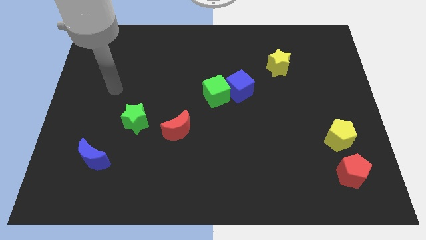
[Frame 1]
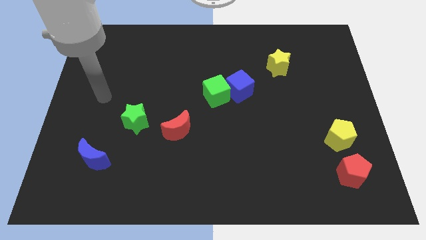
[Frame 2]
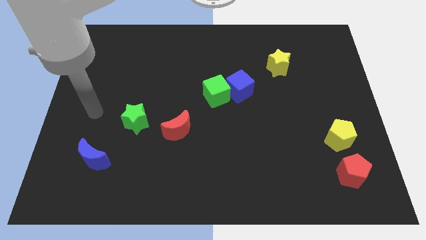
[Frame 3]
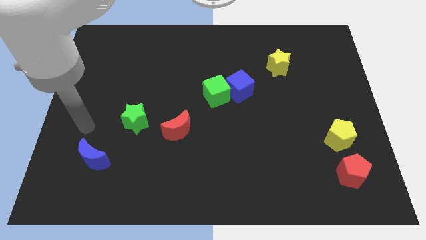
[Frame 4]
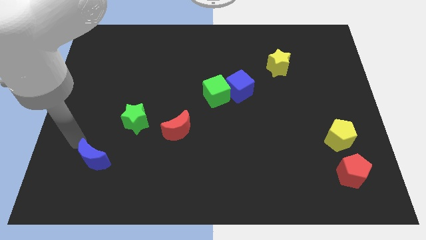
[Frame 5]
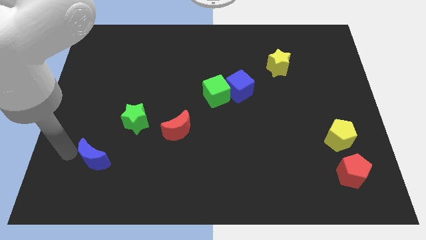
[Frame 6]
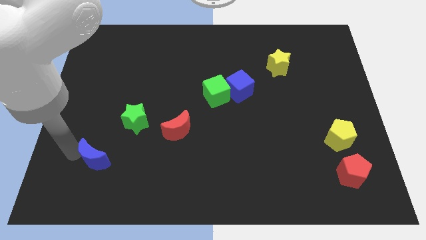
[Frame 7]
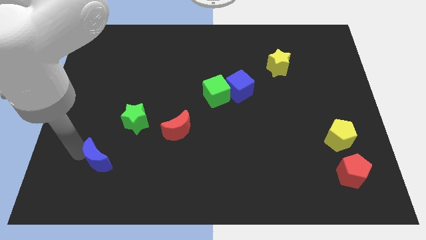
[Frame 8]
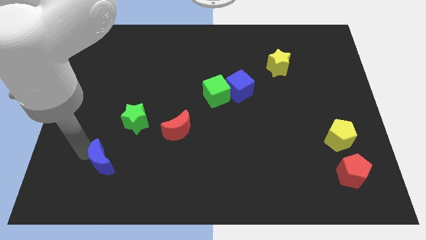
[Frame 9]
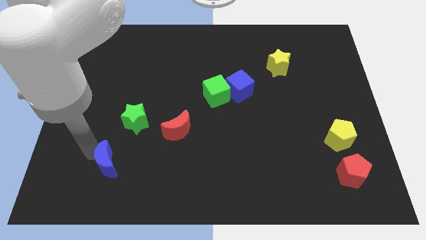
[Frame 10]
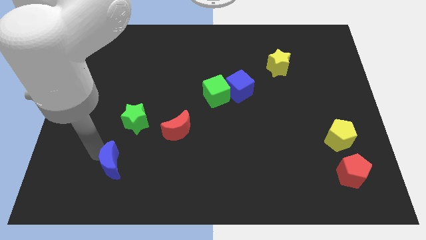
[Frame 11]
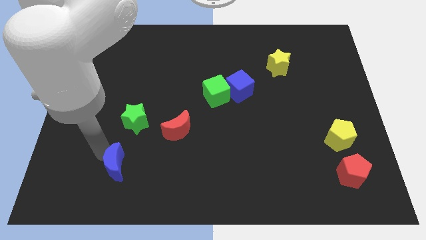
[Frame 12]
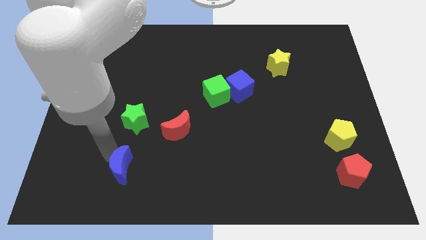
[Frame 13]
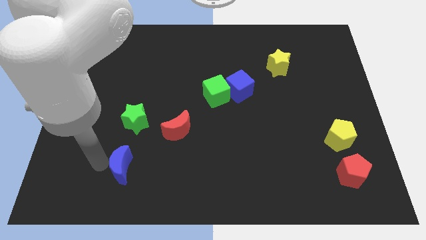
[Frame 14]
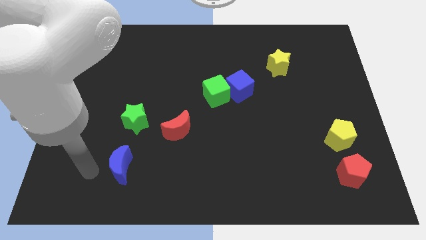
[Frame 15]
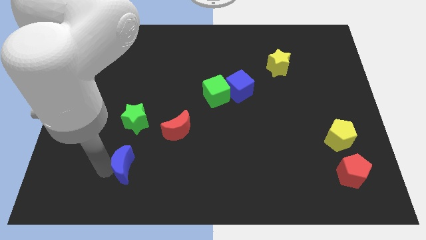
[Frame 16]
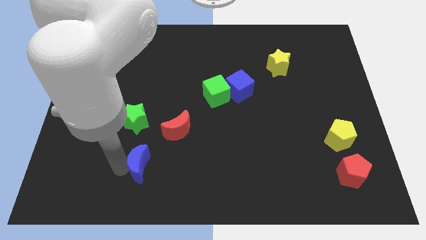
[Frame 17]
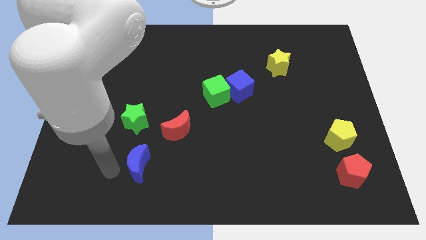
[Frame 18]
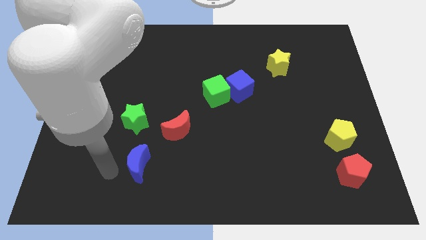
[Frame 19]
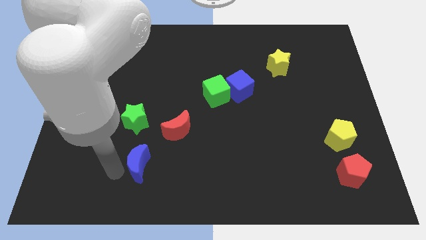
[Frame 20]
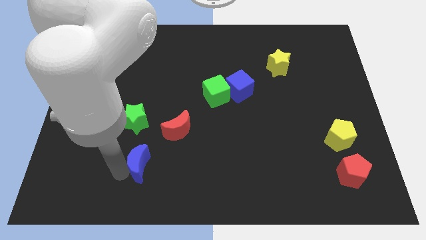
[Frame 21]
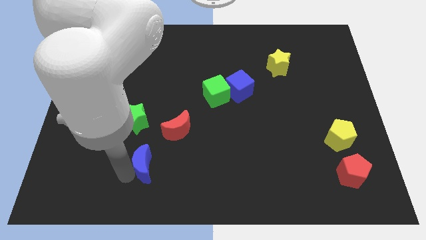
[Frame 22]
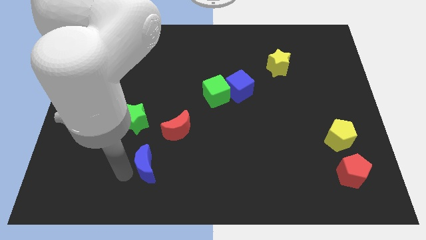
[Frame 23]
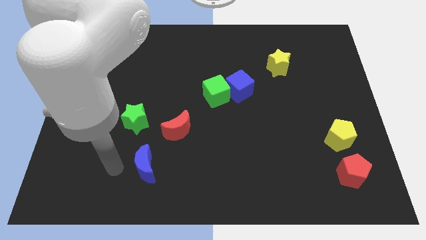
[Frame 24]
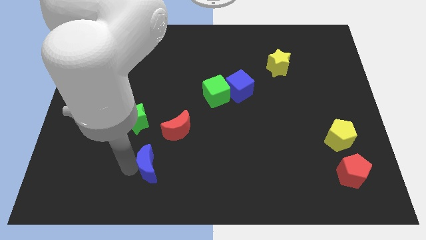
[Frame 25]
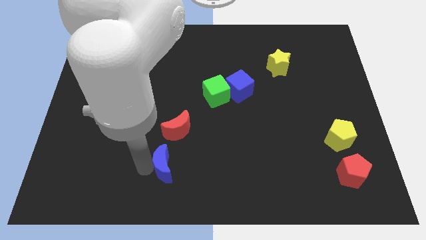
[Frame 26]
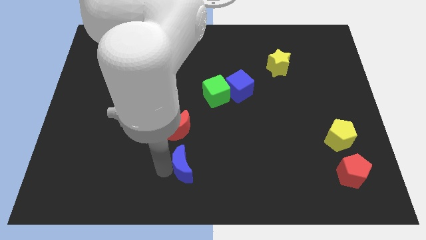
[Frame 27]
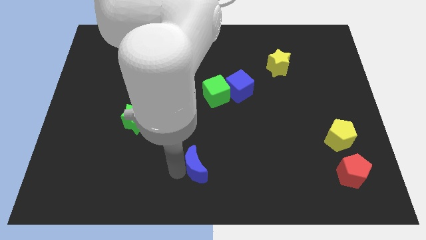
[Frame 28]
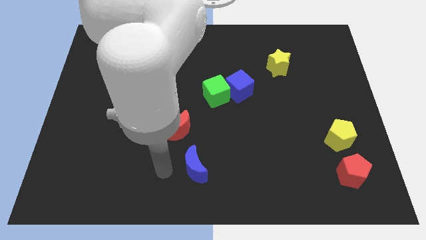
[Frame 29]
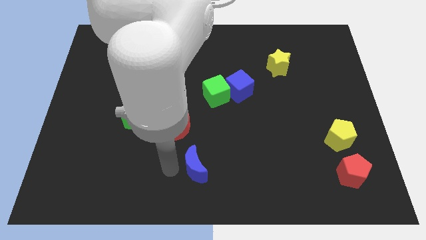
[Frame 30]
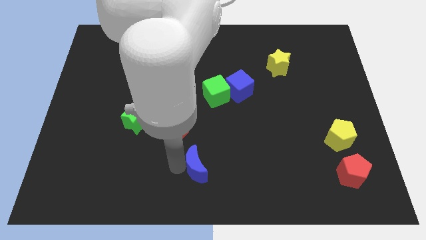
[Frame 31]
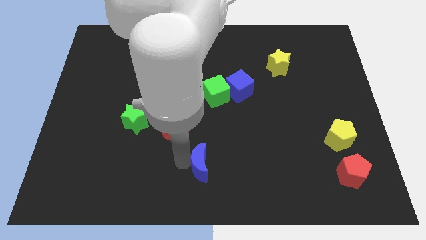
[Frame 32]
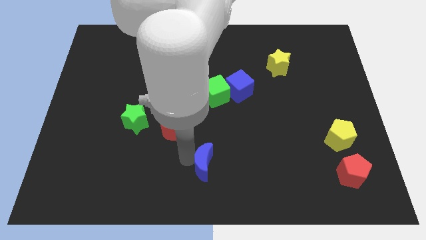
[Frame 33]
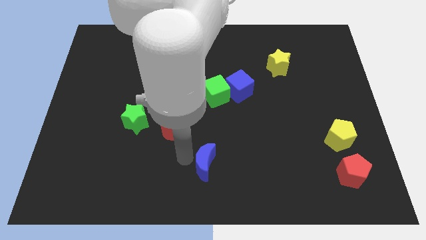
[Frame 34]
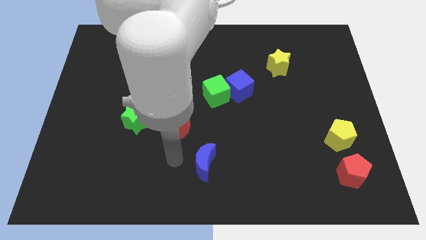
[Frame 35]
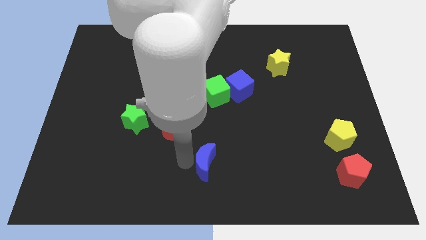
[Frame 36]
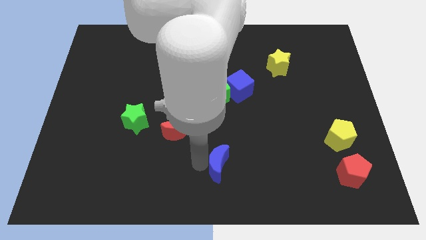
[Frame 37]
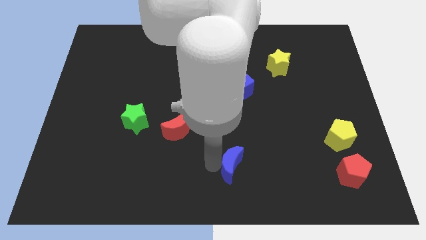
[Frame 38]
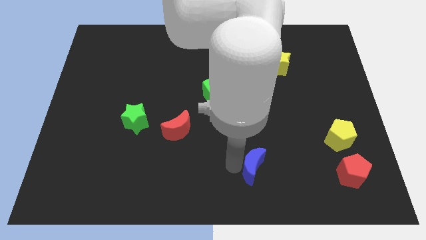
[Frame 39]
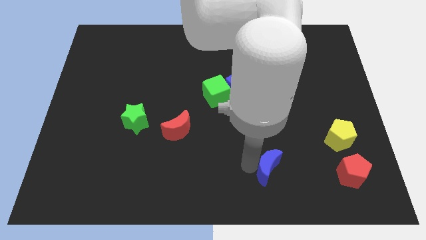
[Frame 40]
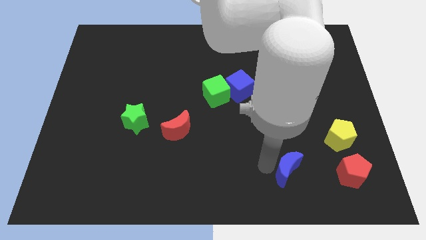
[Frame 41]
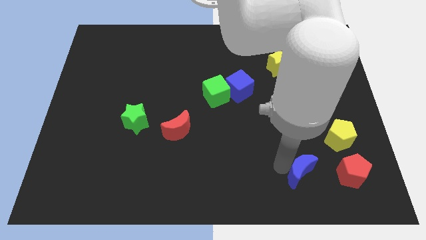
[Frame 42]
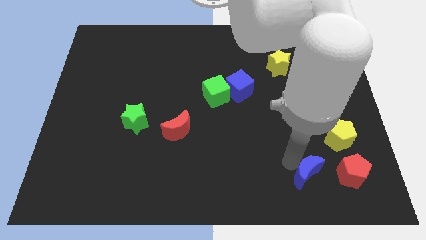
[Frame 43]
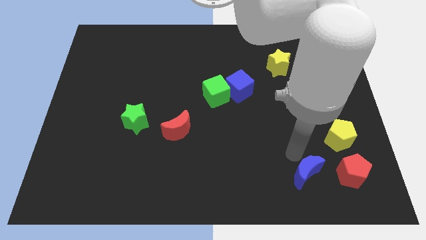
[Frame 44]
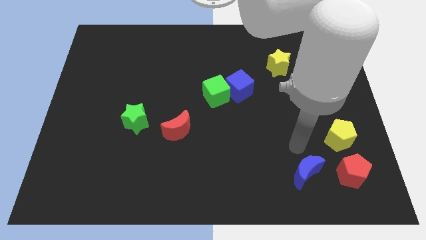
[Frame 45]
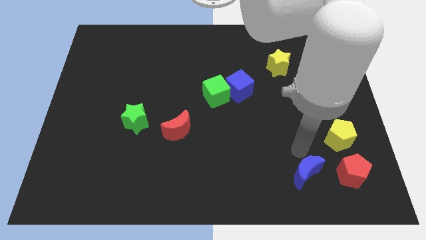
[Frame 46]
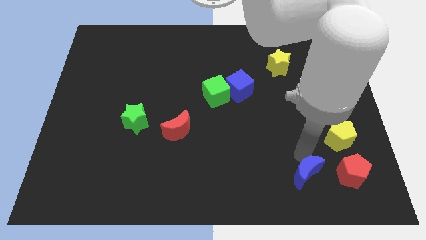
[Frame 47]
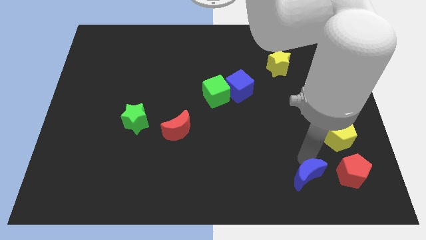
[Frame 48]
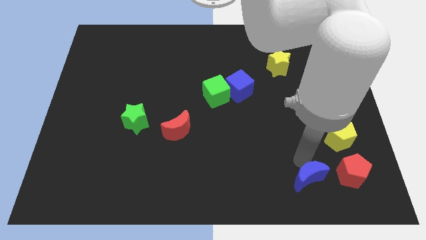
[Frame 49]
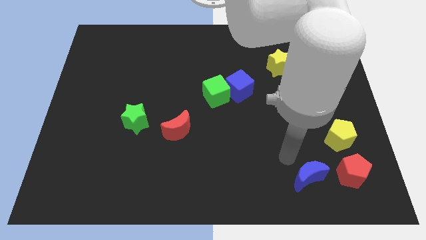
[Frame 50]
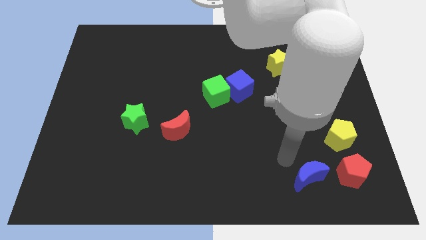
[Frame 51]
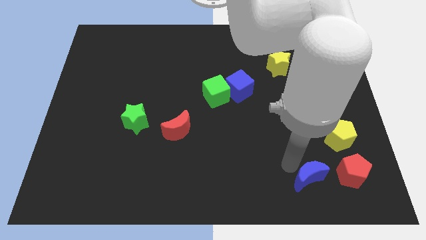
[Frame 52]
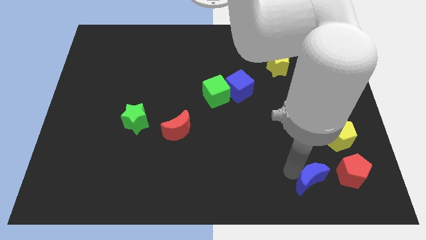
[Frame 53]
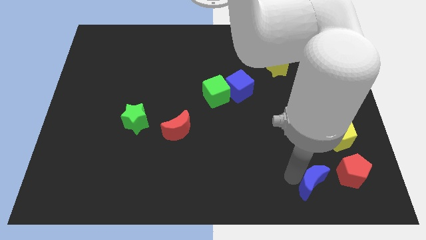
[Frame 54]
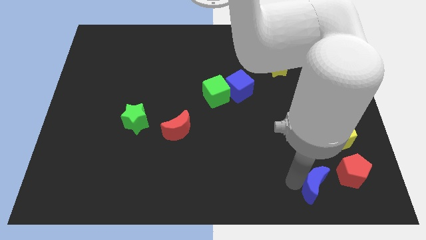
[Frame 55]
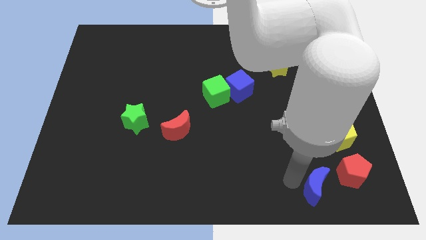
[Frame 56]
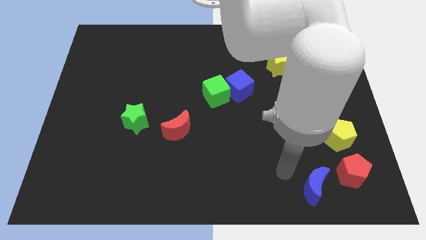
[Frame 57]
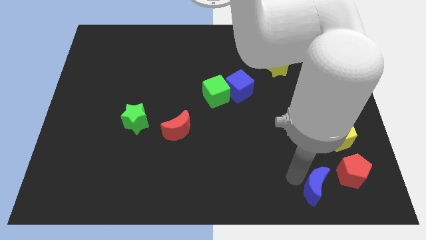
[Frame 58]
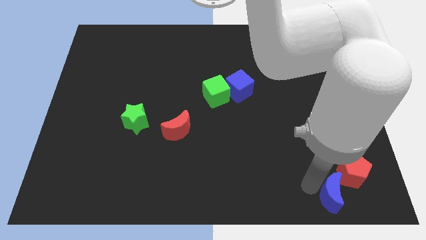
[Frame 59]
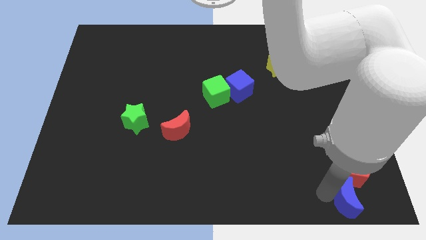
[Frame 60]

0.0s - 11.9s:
move the blue moon to the bottom right
